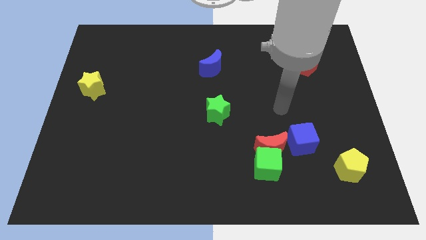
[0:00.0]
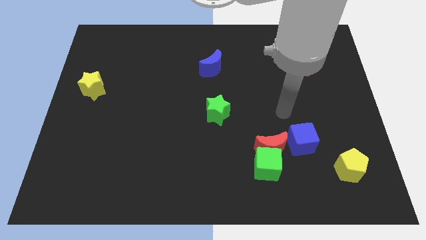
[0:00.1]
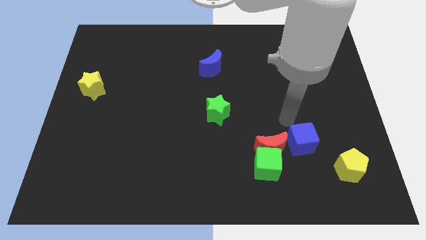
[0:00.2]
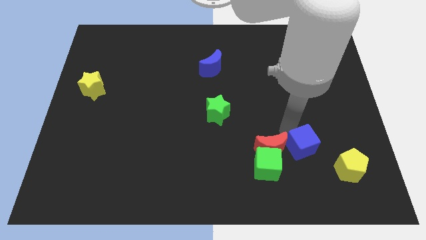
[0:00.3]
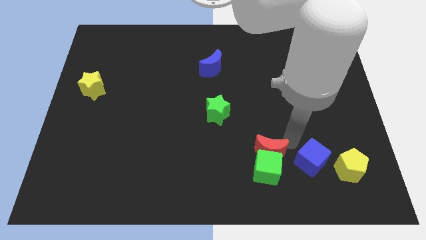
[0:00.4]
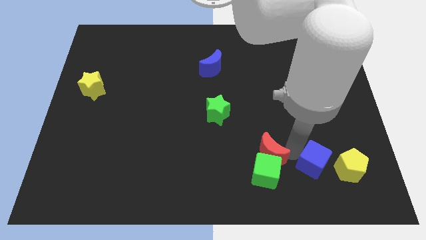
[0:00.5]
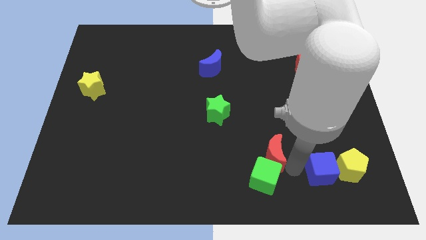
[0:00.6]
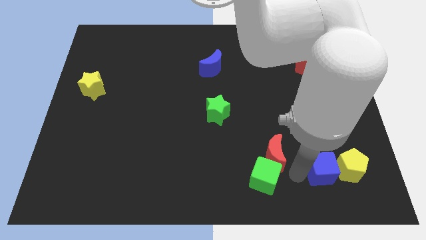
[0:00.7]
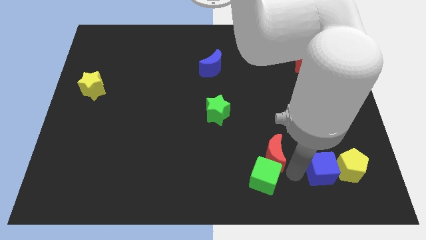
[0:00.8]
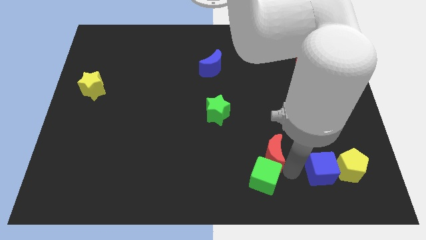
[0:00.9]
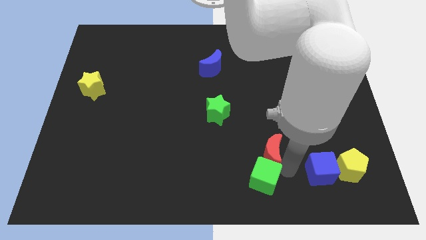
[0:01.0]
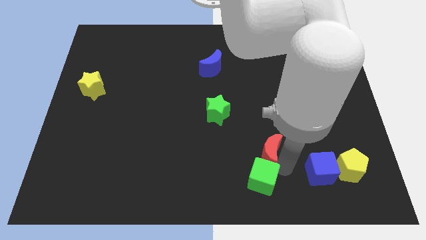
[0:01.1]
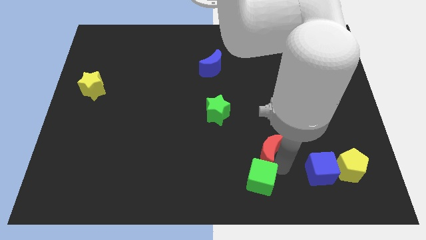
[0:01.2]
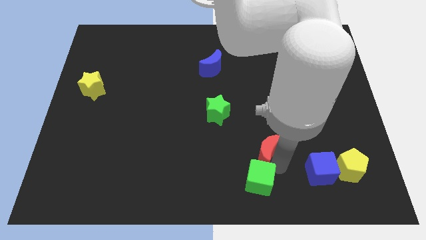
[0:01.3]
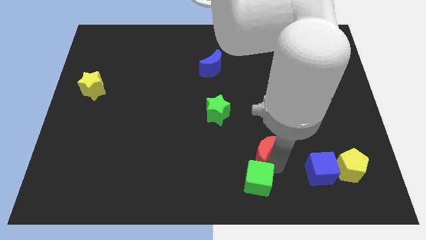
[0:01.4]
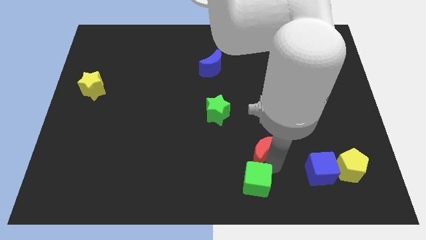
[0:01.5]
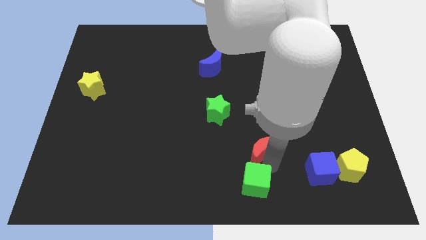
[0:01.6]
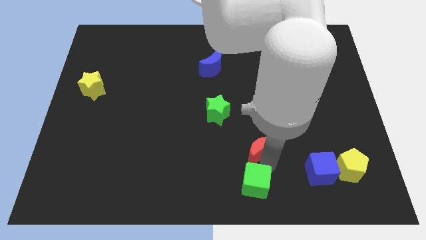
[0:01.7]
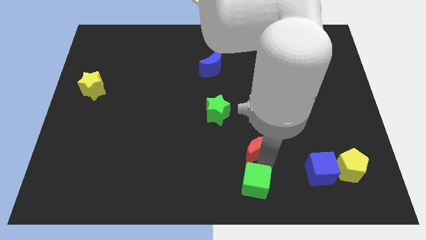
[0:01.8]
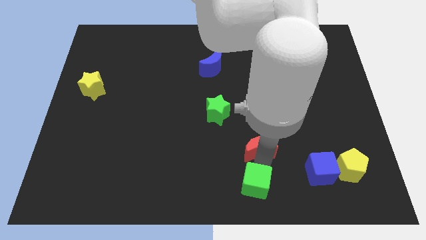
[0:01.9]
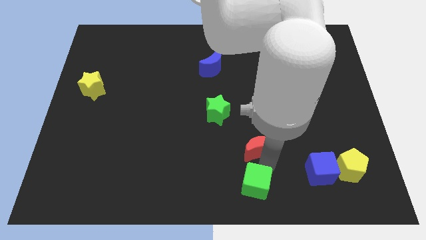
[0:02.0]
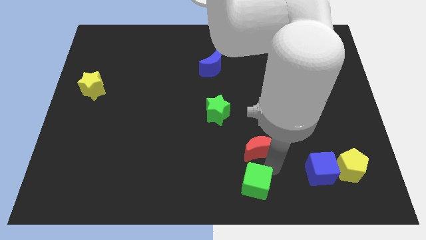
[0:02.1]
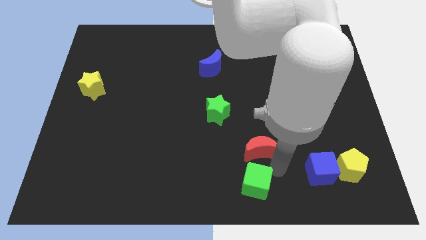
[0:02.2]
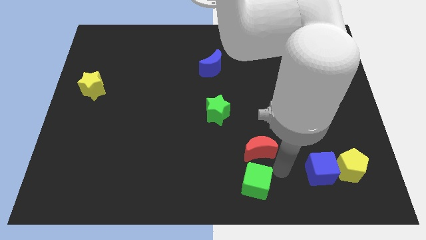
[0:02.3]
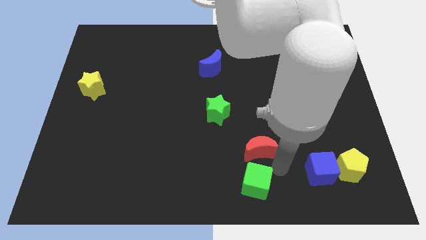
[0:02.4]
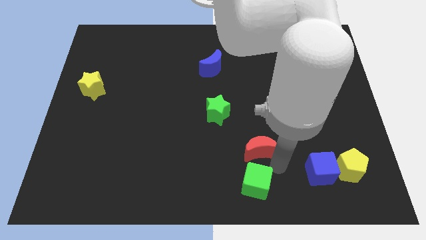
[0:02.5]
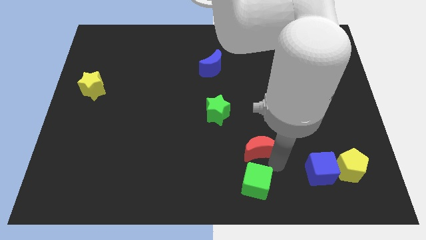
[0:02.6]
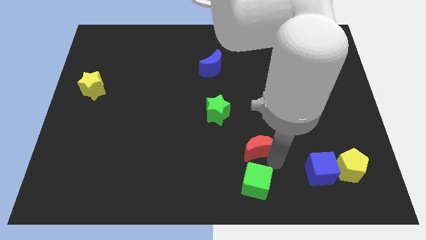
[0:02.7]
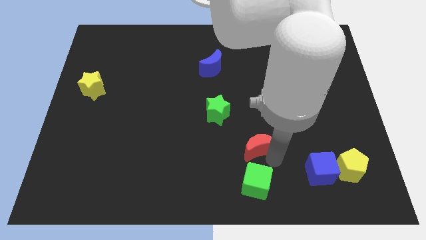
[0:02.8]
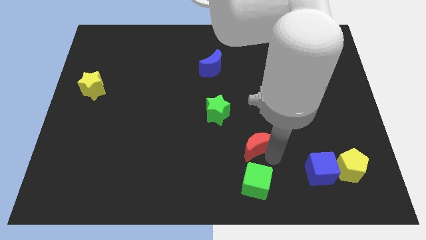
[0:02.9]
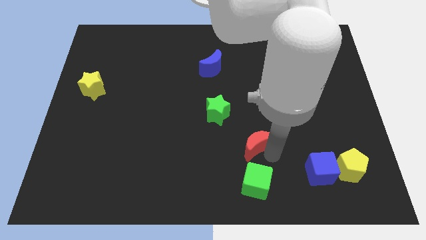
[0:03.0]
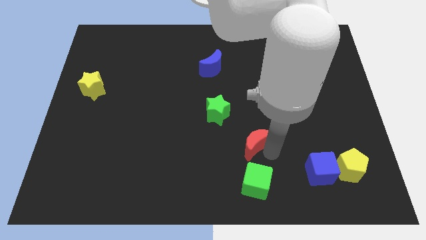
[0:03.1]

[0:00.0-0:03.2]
pull the red moon apart from the green cube and blue cube

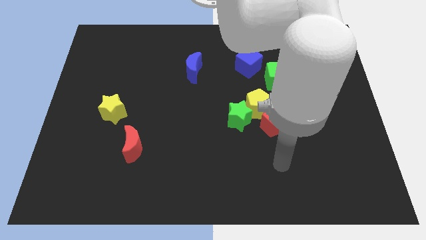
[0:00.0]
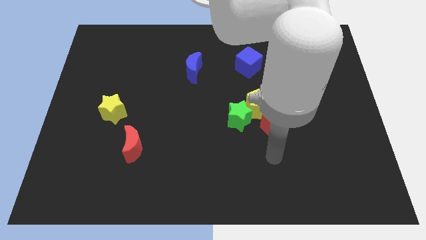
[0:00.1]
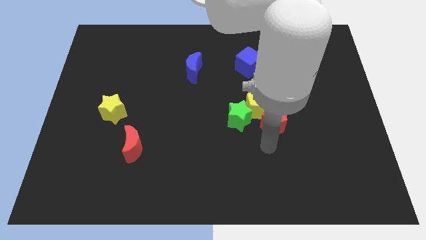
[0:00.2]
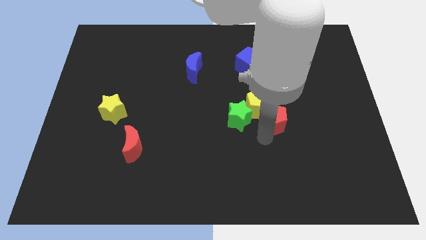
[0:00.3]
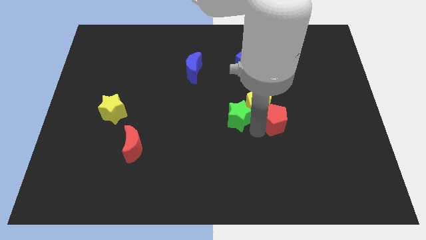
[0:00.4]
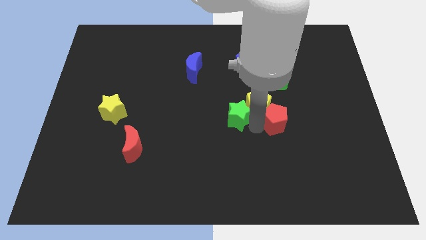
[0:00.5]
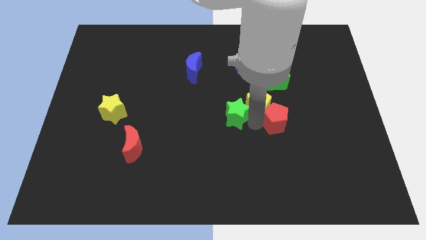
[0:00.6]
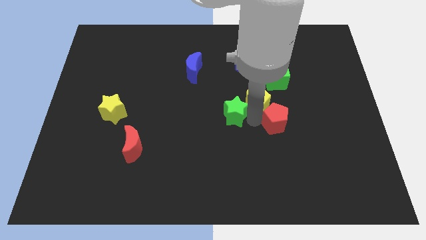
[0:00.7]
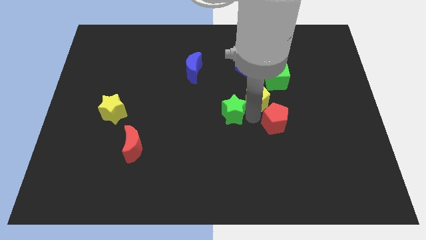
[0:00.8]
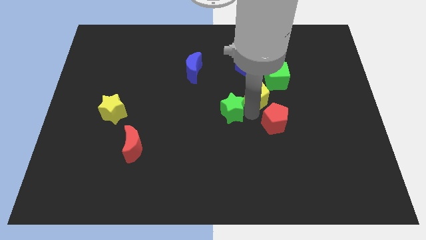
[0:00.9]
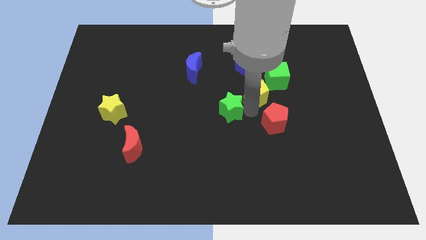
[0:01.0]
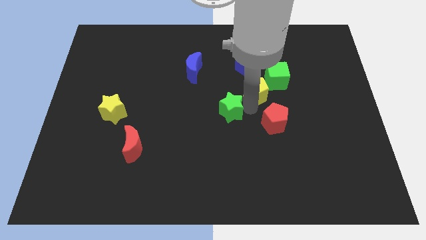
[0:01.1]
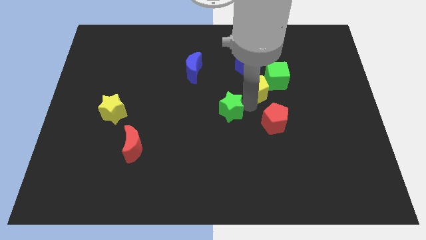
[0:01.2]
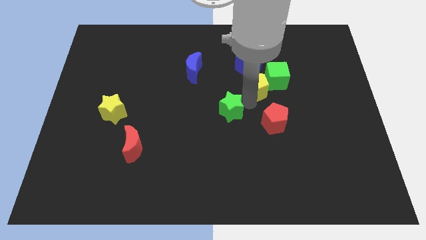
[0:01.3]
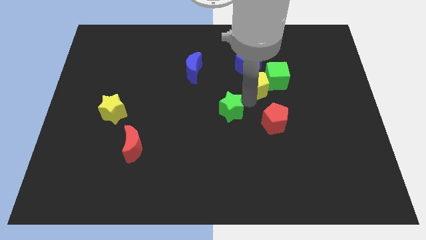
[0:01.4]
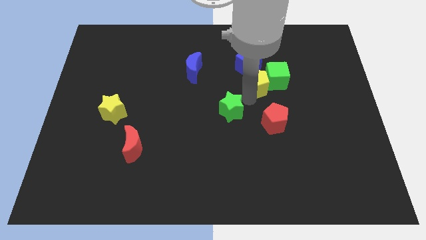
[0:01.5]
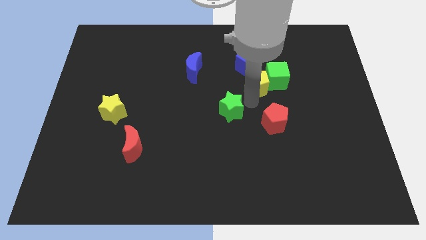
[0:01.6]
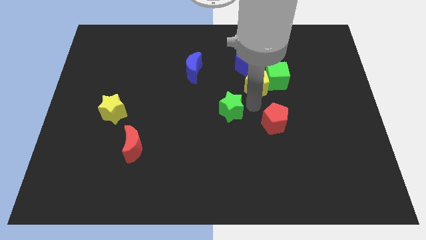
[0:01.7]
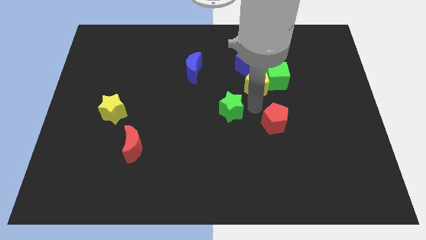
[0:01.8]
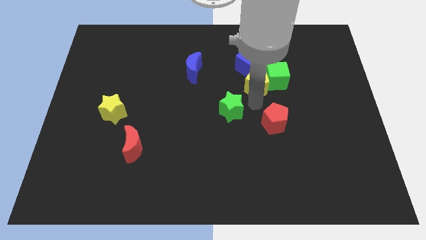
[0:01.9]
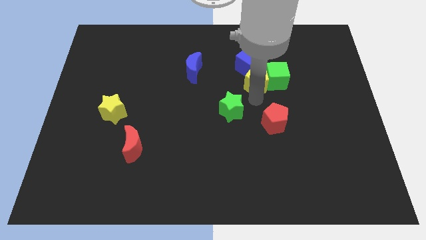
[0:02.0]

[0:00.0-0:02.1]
pull the yellow pentagon apart from the green star and red pentagon

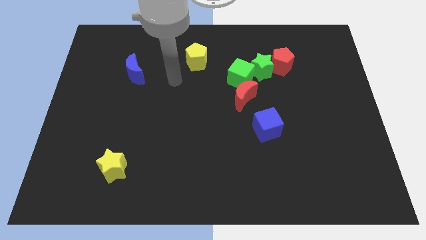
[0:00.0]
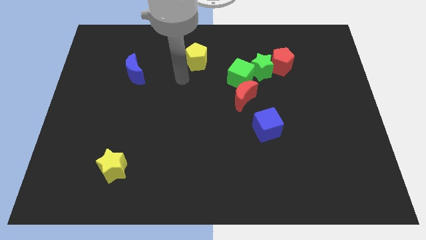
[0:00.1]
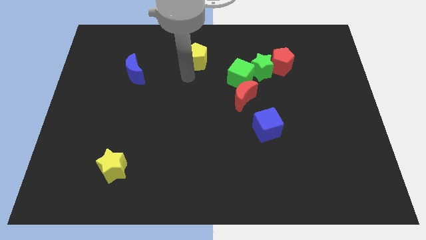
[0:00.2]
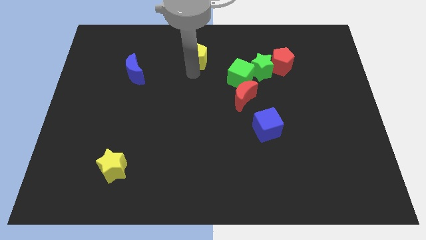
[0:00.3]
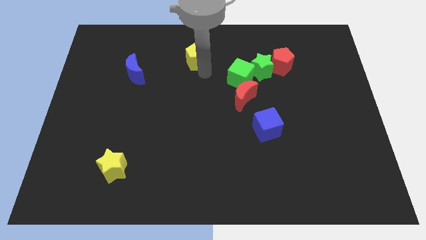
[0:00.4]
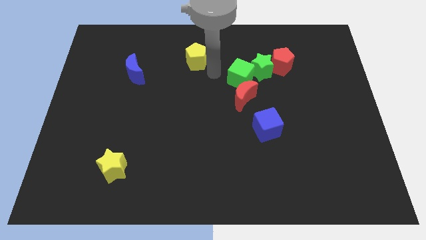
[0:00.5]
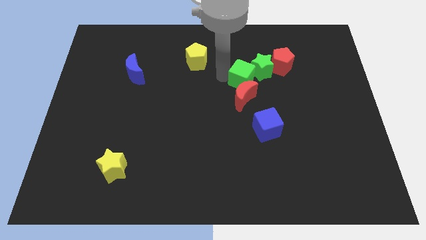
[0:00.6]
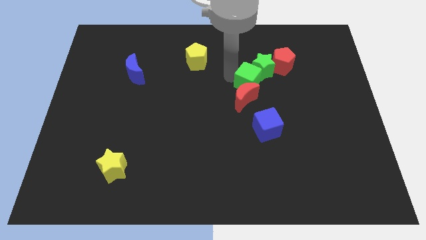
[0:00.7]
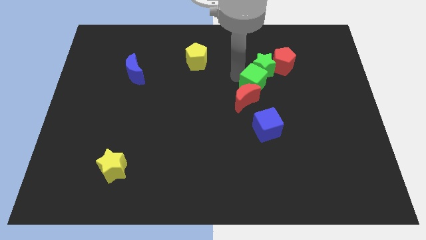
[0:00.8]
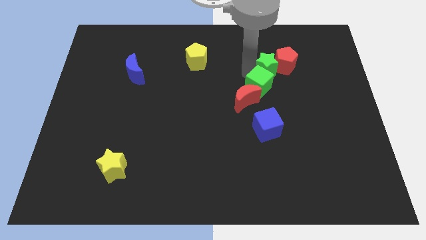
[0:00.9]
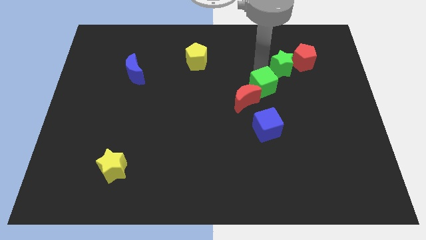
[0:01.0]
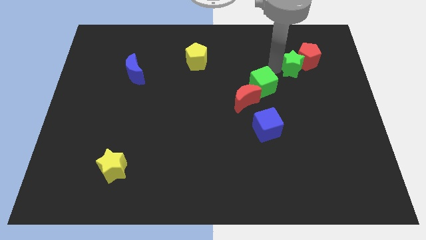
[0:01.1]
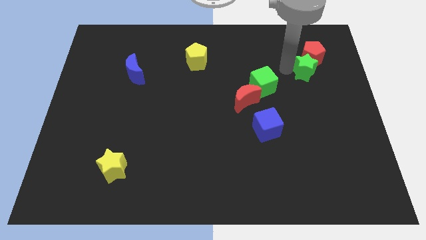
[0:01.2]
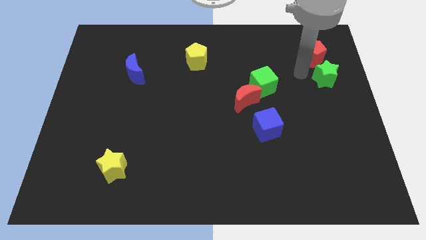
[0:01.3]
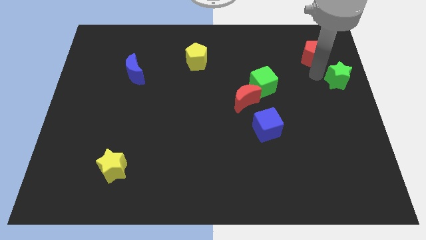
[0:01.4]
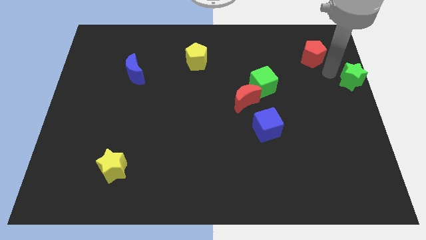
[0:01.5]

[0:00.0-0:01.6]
move the red pentagon away from the green star

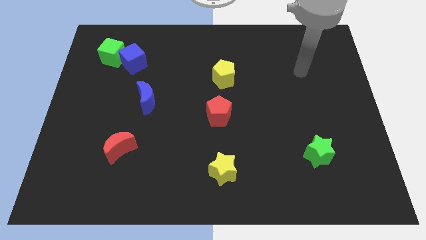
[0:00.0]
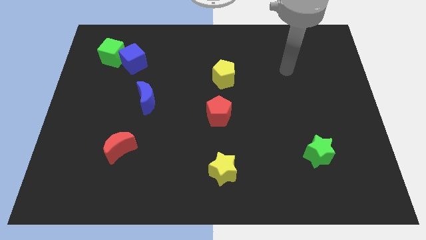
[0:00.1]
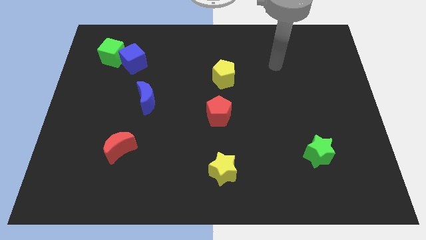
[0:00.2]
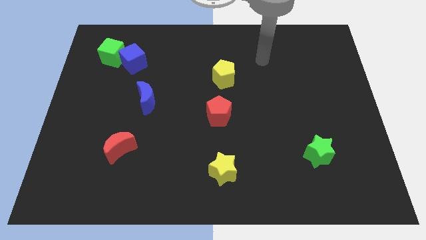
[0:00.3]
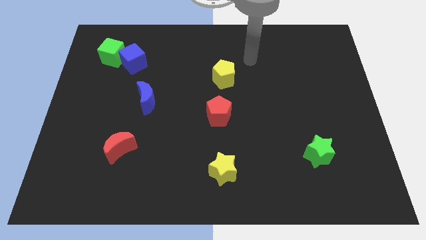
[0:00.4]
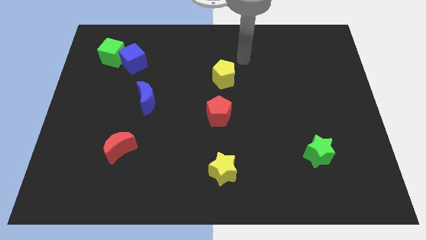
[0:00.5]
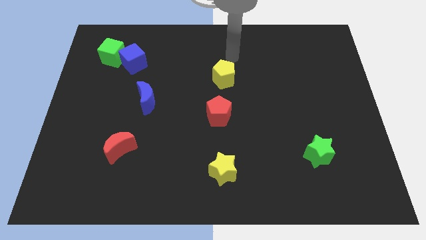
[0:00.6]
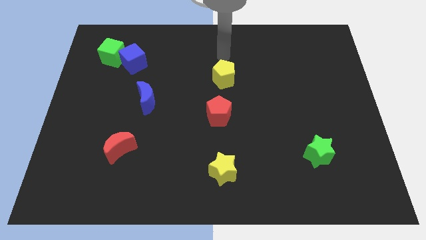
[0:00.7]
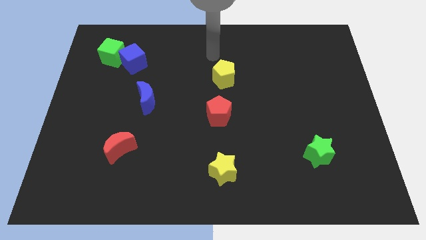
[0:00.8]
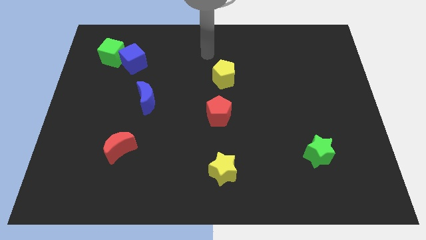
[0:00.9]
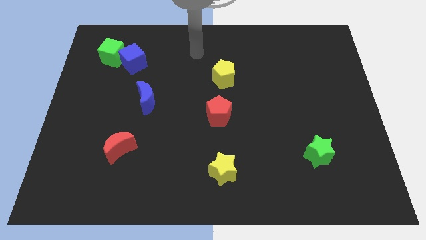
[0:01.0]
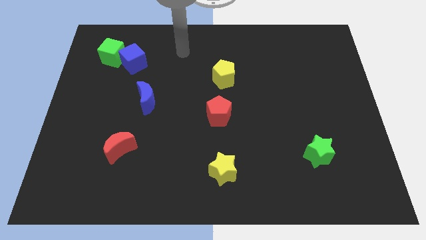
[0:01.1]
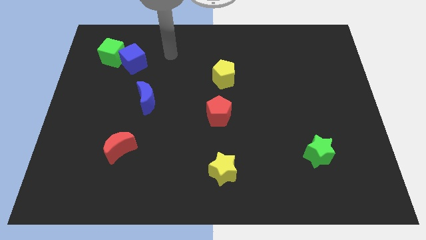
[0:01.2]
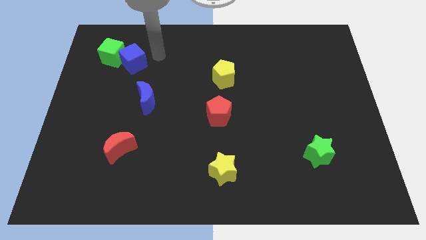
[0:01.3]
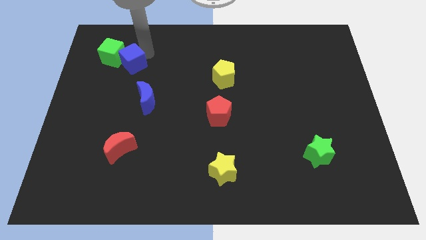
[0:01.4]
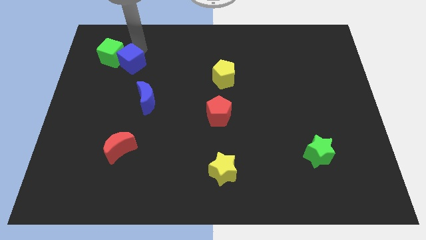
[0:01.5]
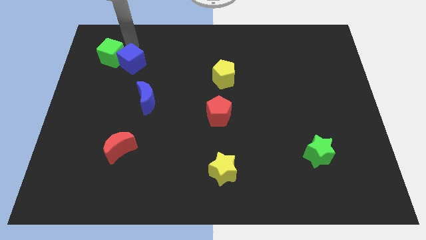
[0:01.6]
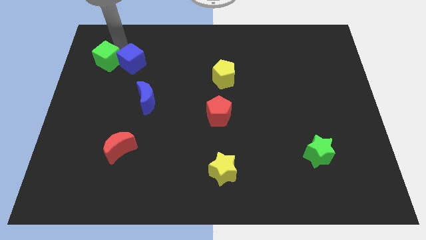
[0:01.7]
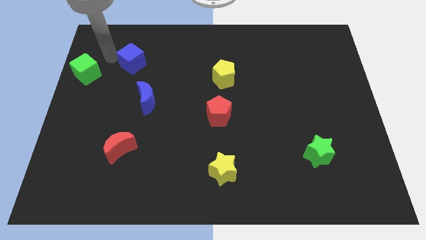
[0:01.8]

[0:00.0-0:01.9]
separate the blue cube from the green cube

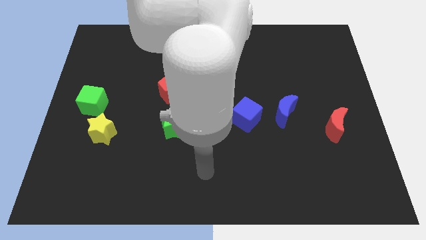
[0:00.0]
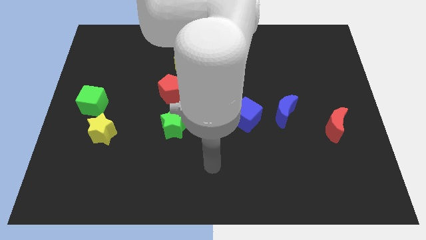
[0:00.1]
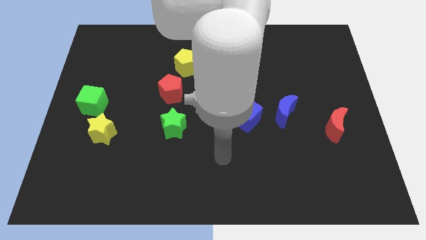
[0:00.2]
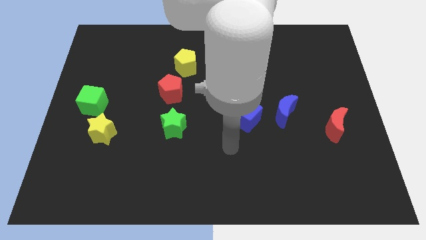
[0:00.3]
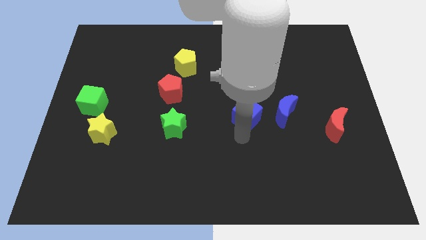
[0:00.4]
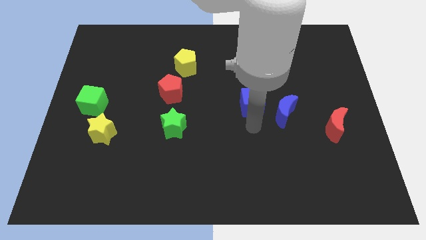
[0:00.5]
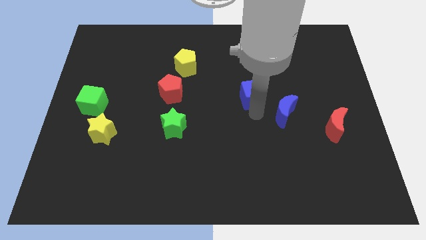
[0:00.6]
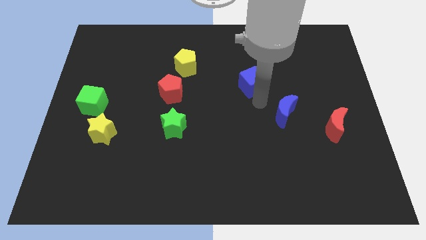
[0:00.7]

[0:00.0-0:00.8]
separate the blue moon from the blue cube
